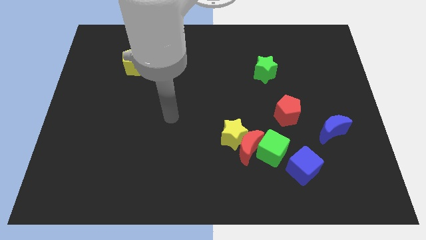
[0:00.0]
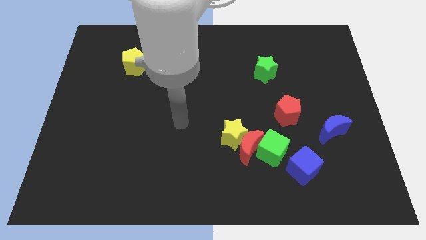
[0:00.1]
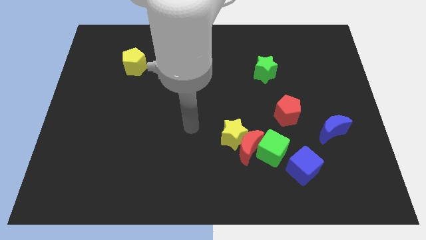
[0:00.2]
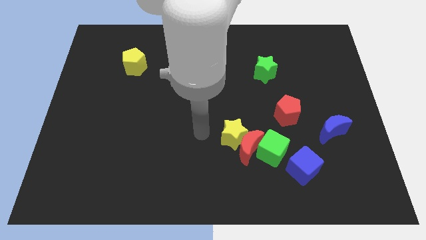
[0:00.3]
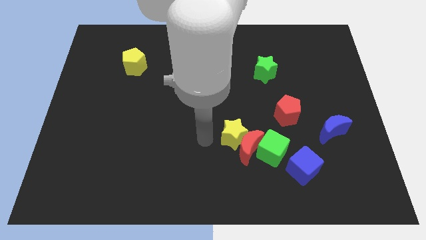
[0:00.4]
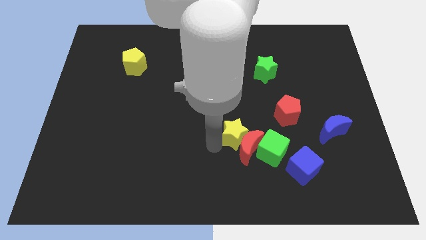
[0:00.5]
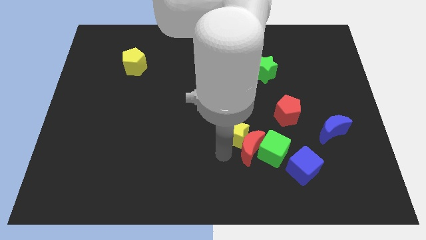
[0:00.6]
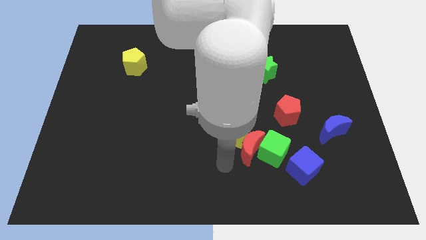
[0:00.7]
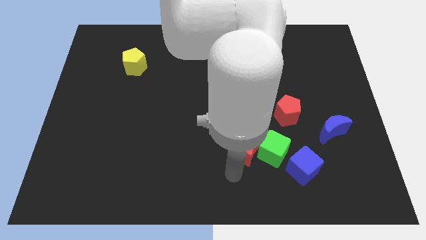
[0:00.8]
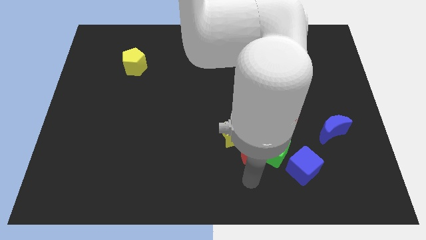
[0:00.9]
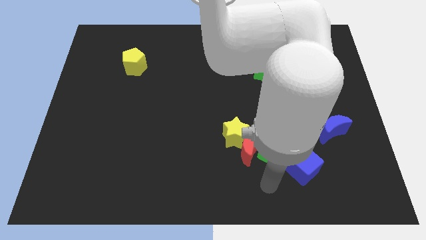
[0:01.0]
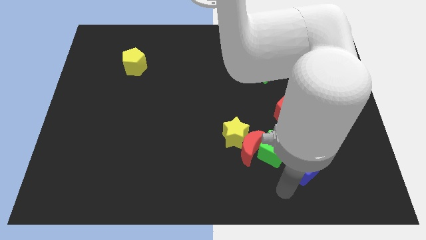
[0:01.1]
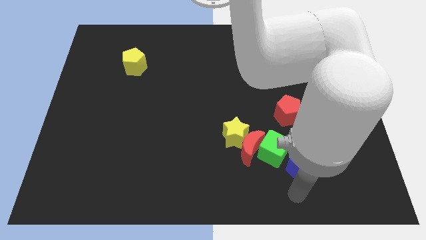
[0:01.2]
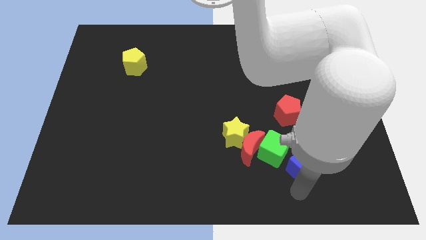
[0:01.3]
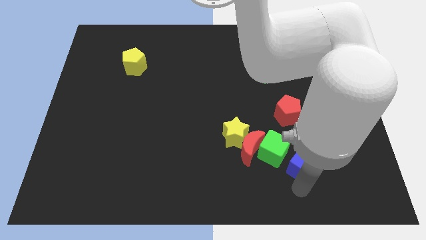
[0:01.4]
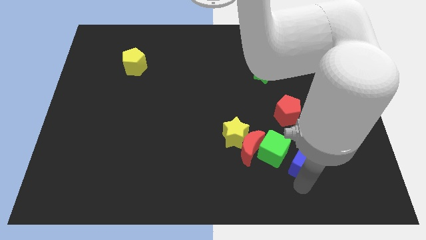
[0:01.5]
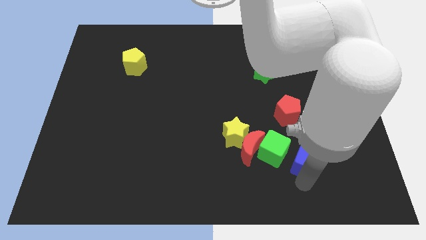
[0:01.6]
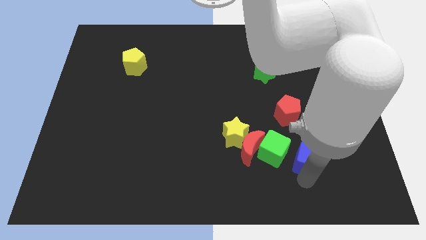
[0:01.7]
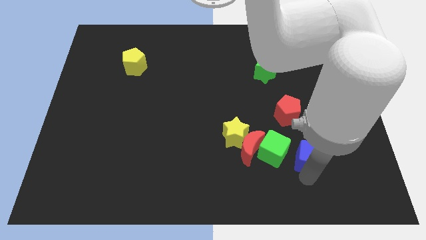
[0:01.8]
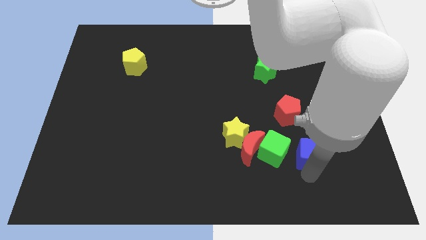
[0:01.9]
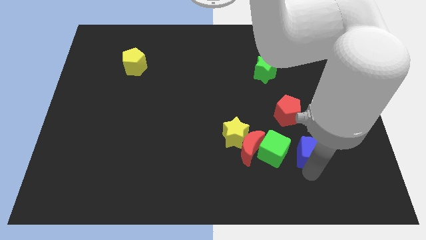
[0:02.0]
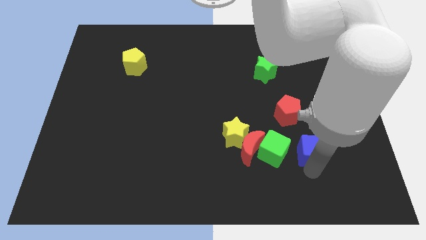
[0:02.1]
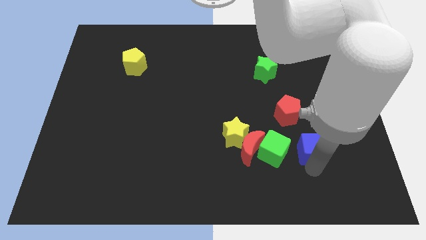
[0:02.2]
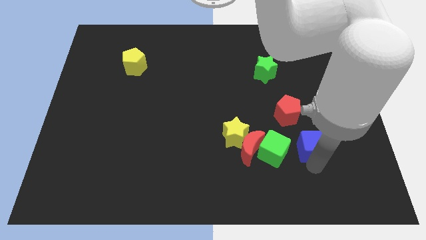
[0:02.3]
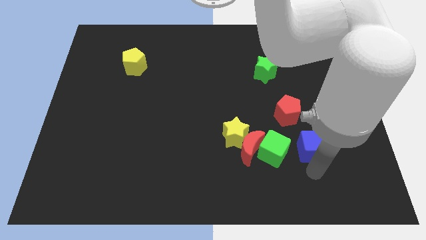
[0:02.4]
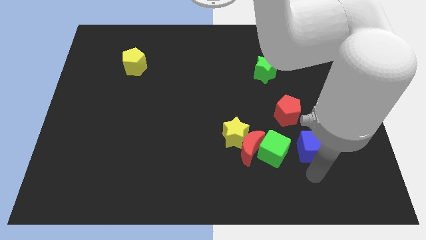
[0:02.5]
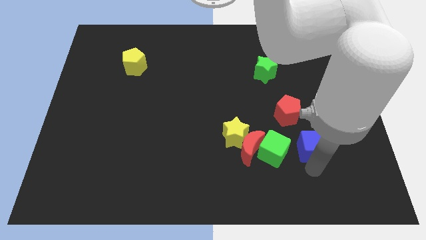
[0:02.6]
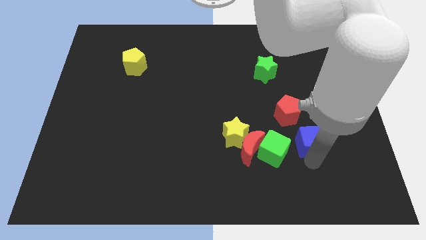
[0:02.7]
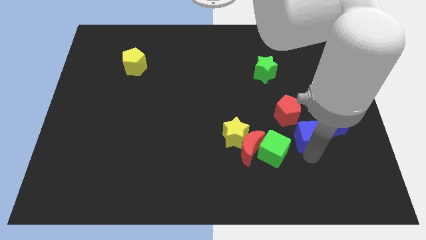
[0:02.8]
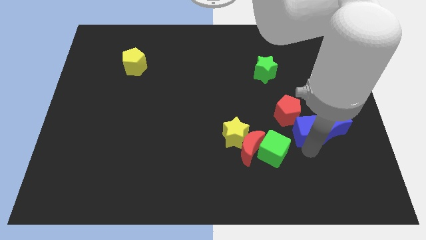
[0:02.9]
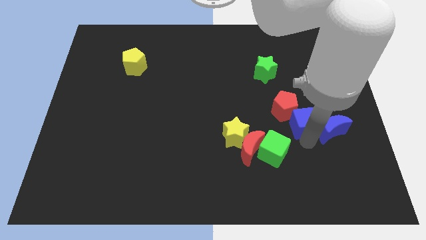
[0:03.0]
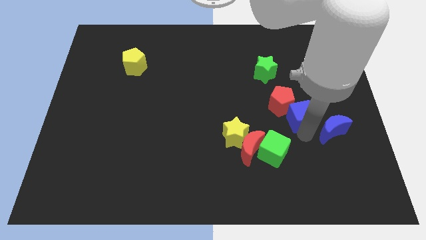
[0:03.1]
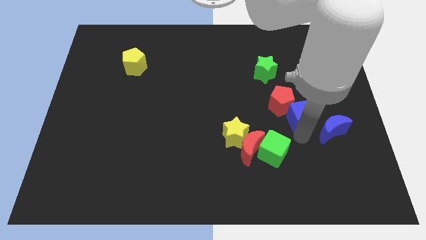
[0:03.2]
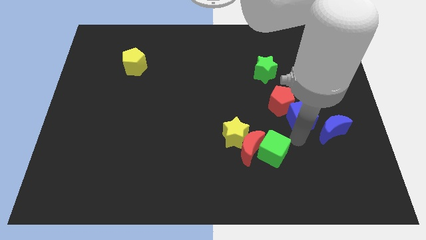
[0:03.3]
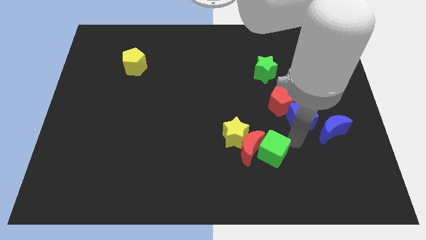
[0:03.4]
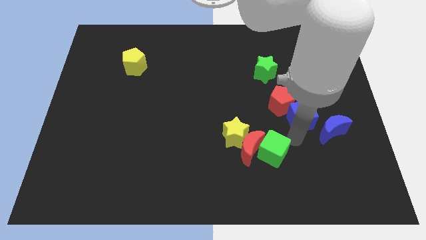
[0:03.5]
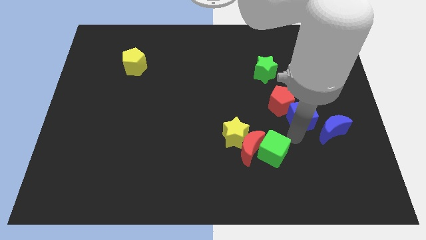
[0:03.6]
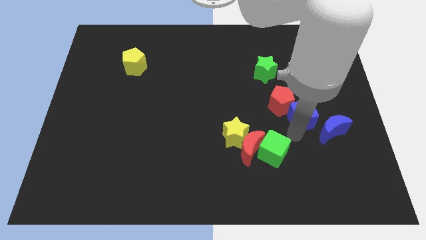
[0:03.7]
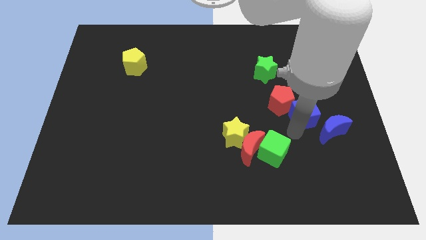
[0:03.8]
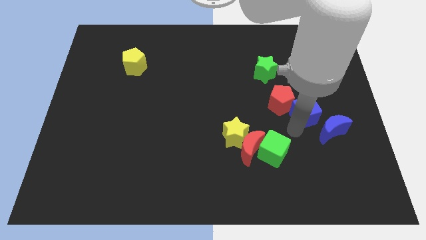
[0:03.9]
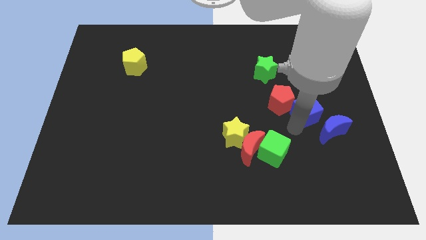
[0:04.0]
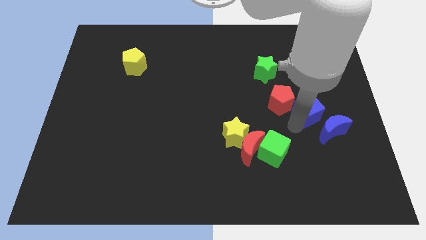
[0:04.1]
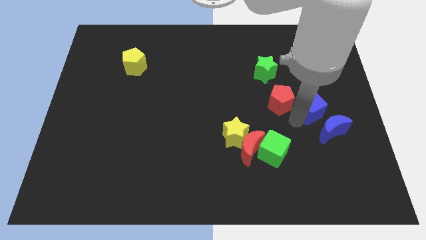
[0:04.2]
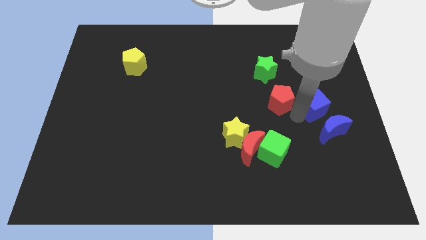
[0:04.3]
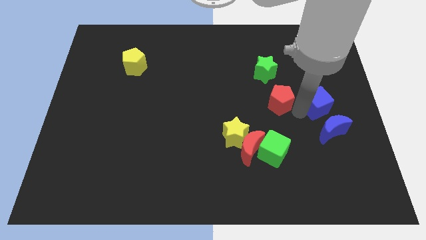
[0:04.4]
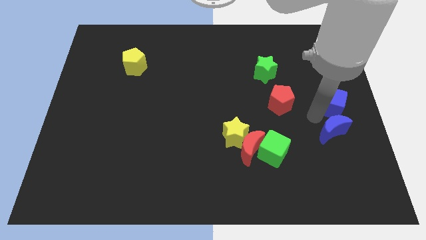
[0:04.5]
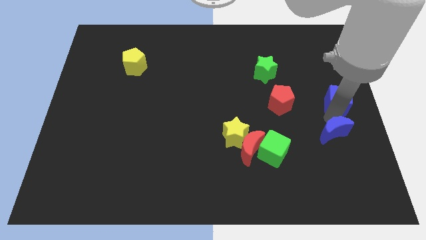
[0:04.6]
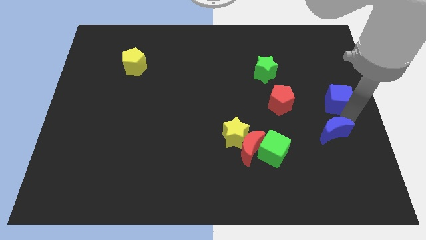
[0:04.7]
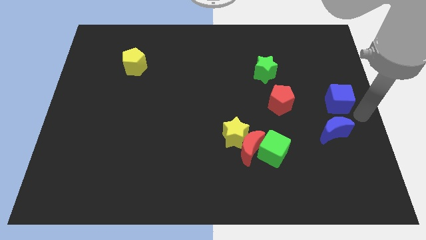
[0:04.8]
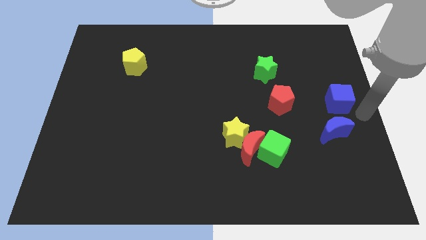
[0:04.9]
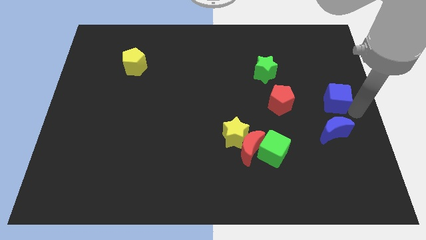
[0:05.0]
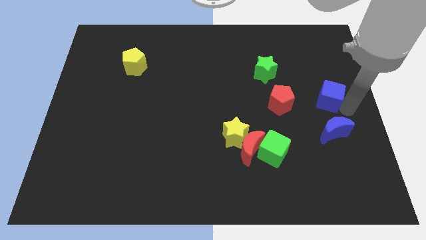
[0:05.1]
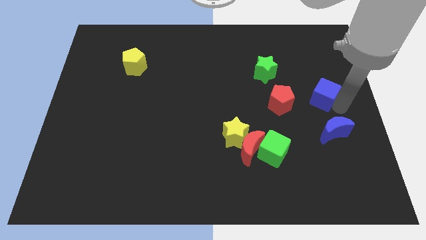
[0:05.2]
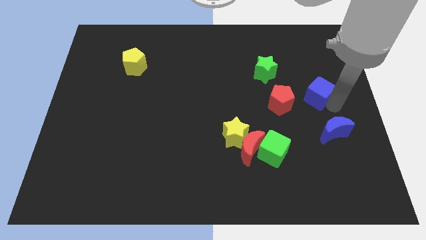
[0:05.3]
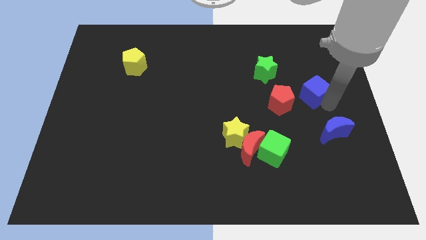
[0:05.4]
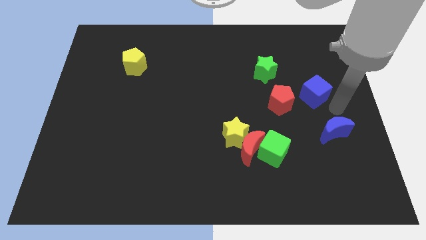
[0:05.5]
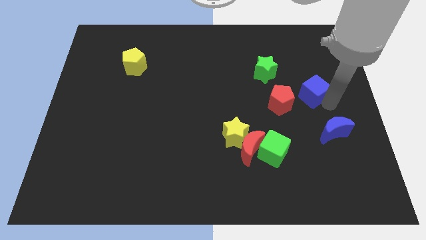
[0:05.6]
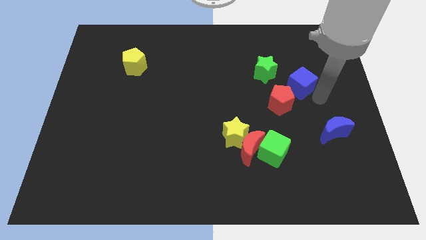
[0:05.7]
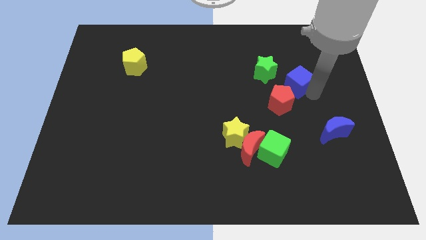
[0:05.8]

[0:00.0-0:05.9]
slide the blue cube above the red pentagon

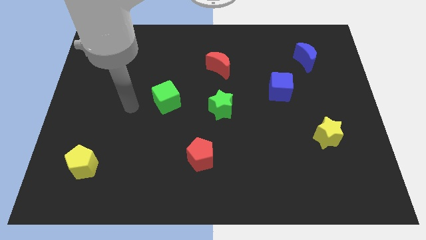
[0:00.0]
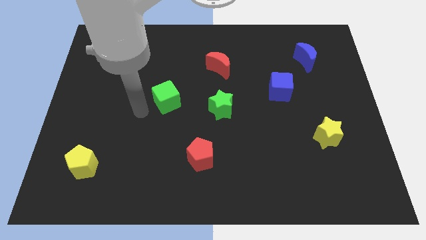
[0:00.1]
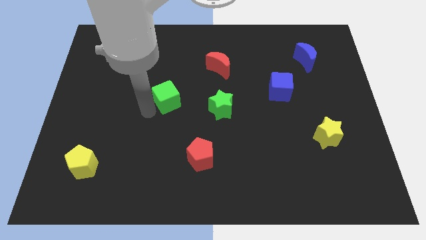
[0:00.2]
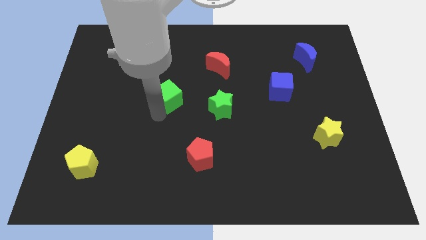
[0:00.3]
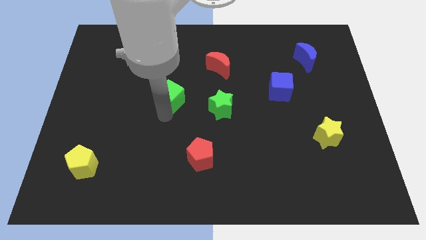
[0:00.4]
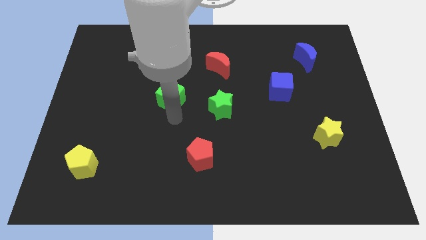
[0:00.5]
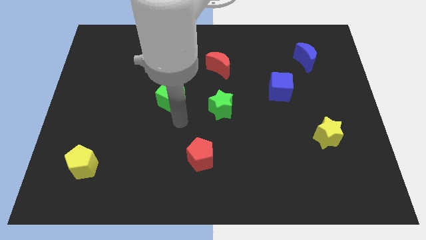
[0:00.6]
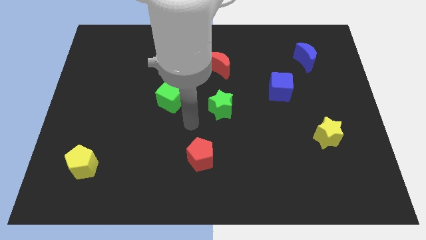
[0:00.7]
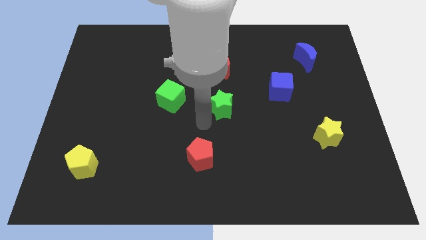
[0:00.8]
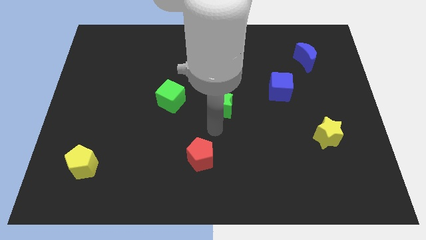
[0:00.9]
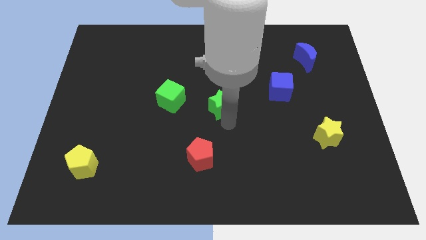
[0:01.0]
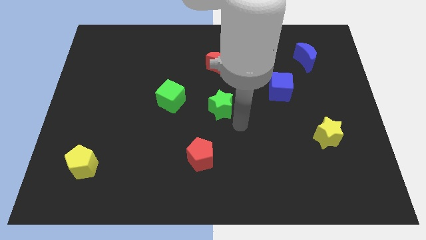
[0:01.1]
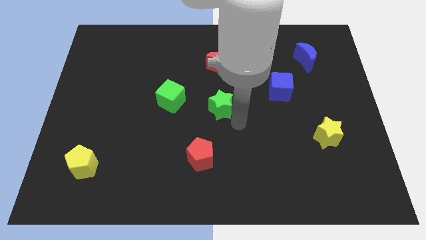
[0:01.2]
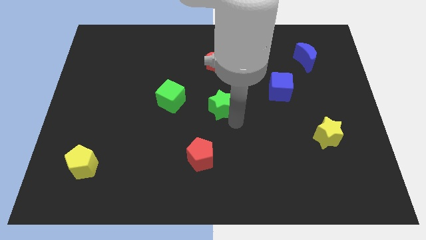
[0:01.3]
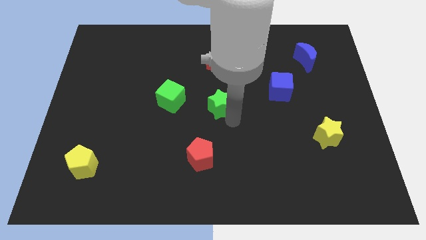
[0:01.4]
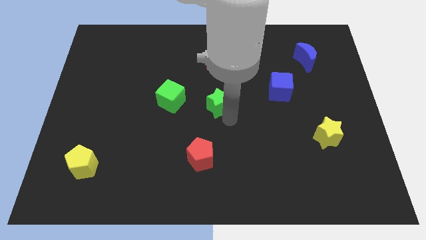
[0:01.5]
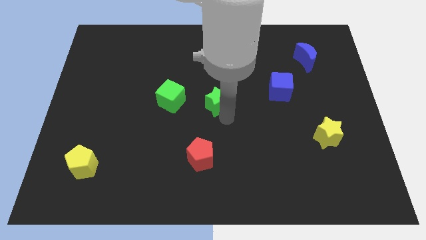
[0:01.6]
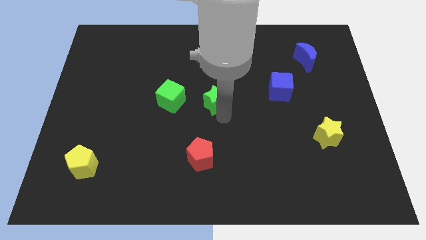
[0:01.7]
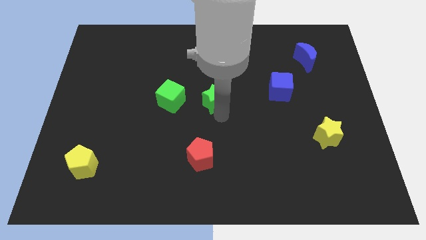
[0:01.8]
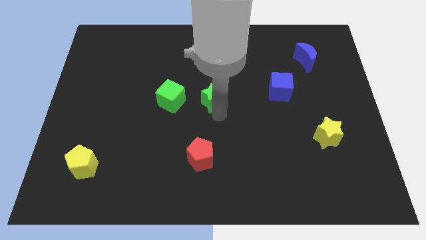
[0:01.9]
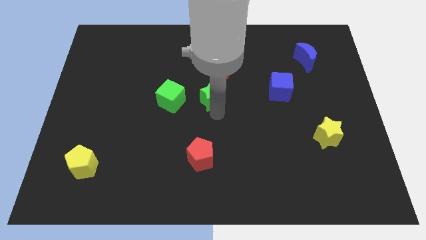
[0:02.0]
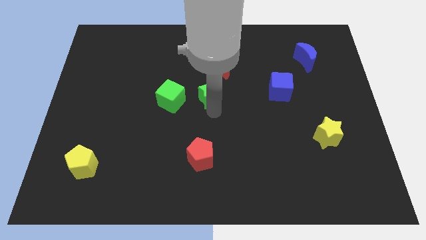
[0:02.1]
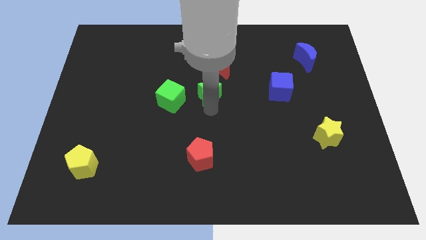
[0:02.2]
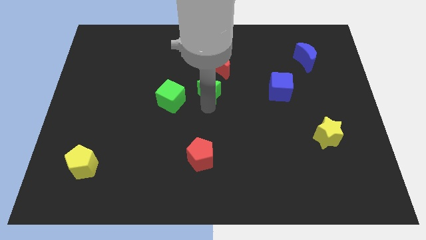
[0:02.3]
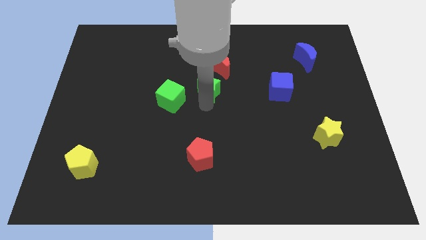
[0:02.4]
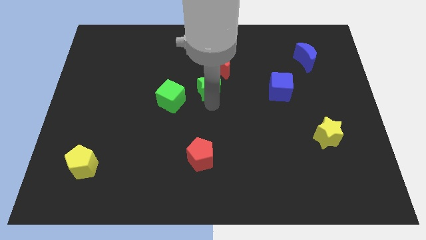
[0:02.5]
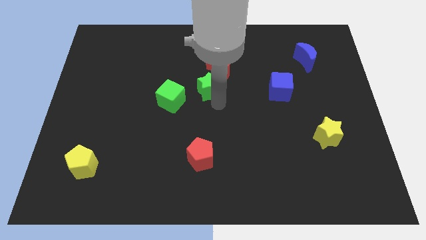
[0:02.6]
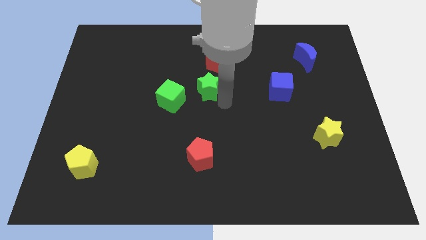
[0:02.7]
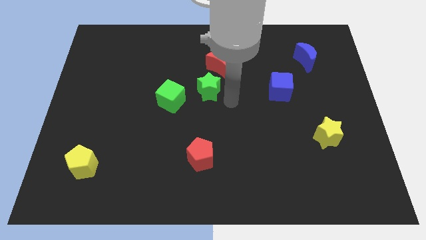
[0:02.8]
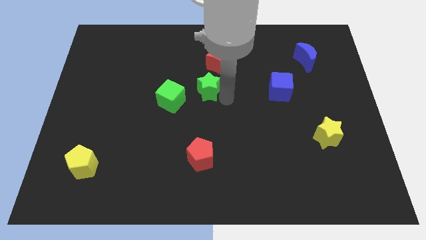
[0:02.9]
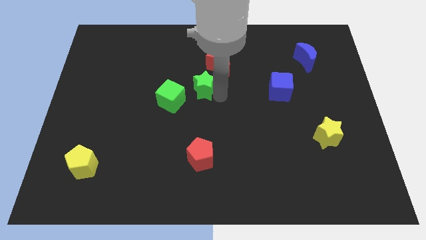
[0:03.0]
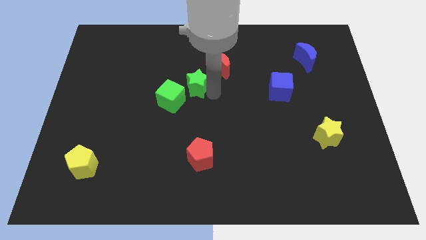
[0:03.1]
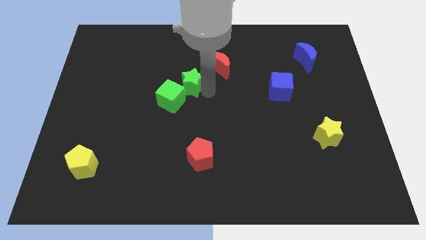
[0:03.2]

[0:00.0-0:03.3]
push the green star above the green cube
